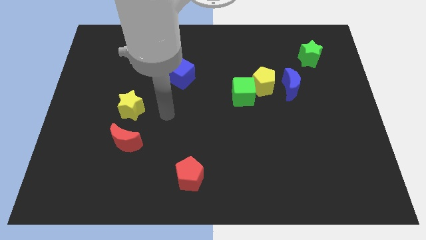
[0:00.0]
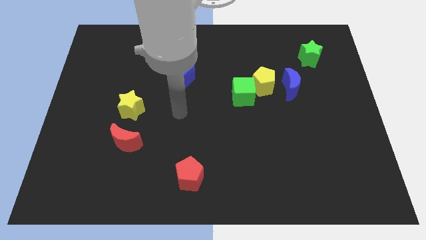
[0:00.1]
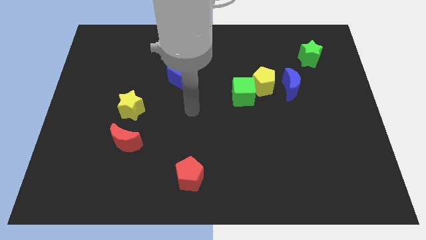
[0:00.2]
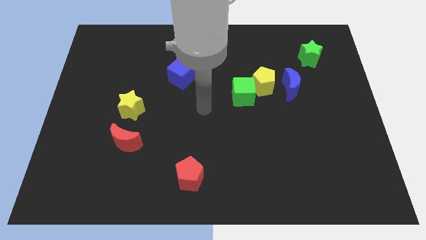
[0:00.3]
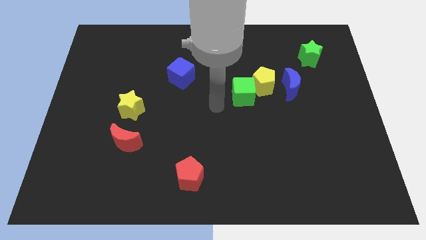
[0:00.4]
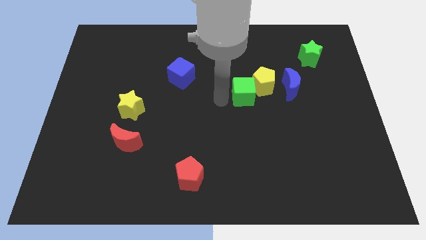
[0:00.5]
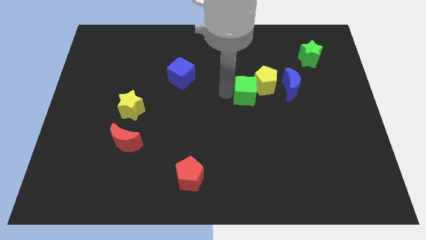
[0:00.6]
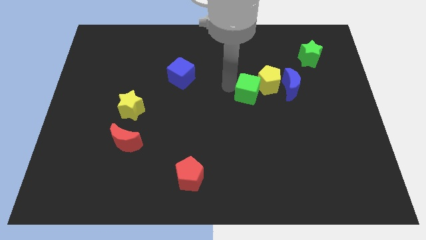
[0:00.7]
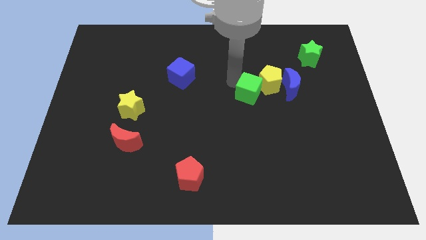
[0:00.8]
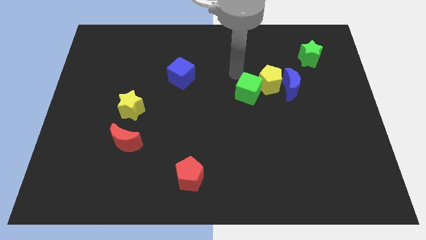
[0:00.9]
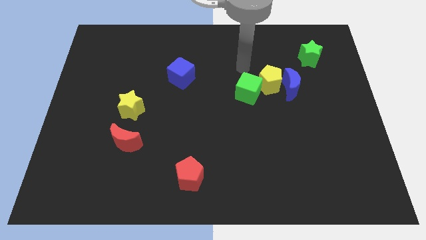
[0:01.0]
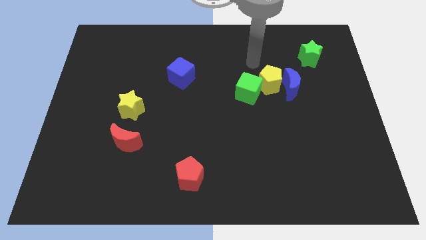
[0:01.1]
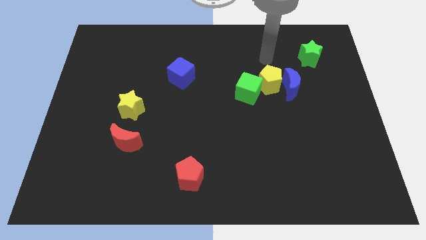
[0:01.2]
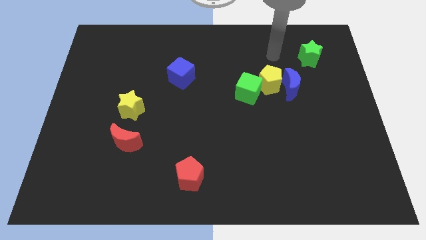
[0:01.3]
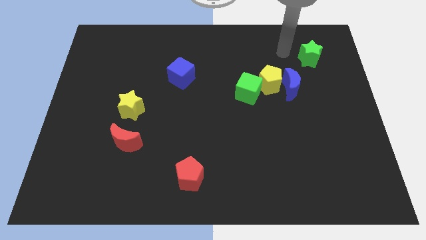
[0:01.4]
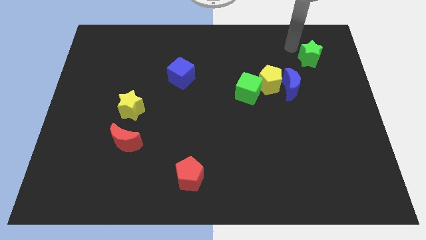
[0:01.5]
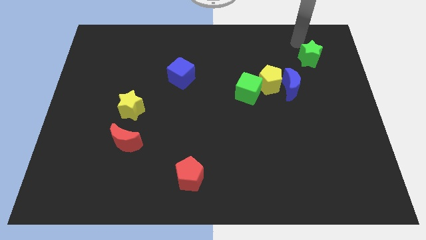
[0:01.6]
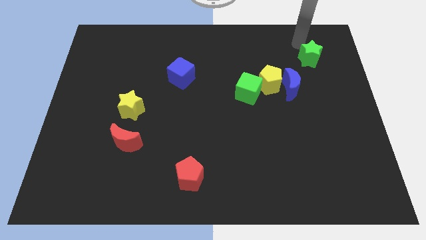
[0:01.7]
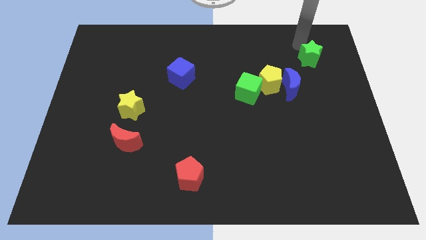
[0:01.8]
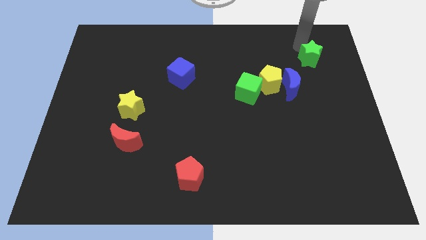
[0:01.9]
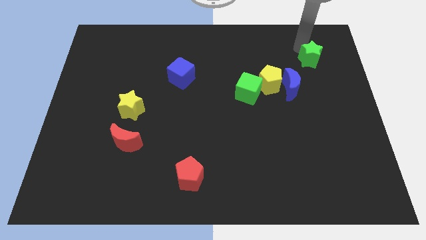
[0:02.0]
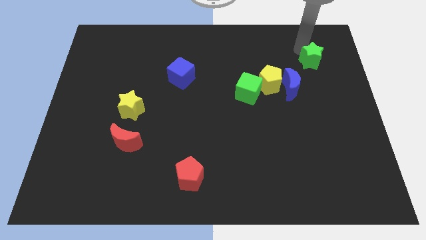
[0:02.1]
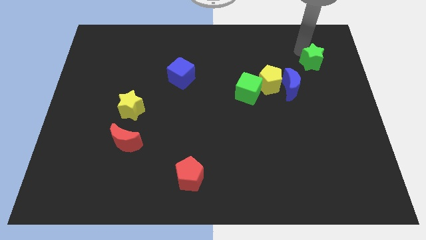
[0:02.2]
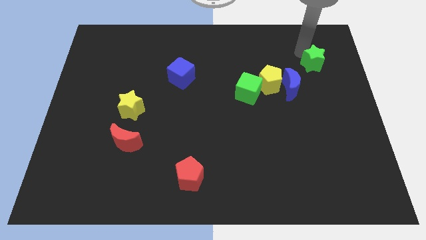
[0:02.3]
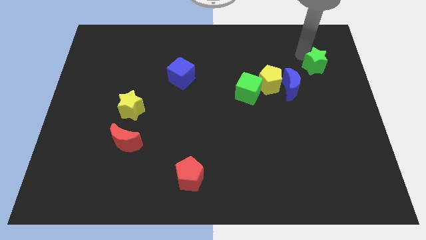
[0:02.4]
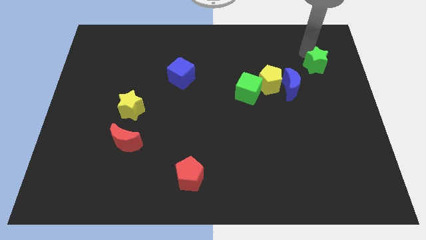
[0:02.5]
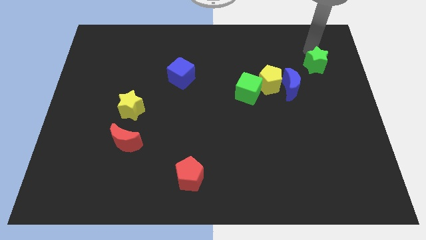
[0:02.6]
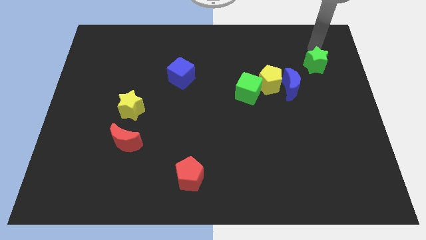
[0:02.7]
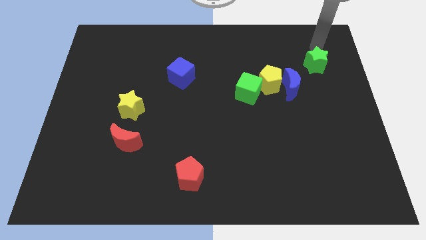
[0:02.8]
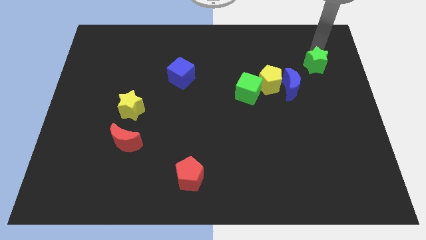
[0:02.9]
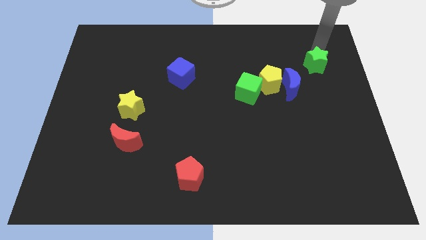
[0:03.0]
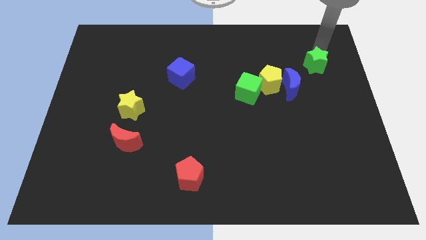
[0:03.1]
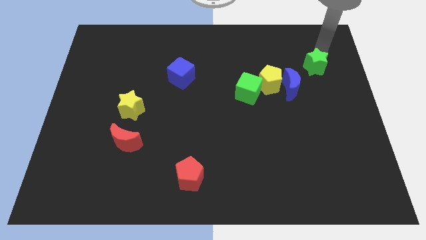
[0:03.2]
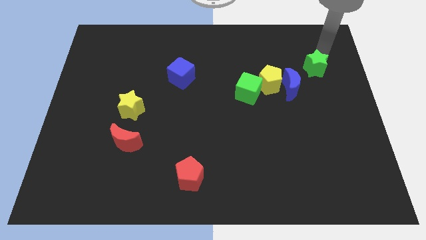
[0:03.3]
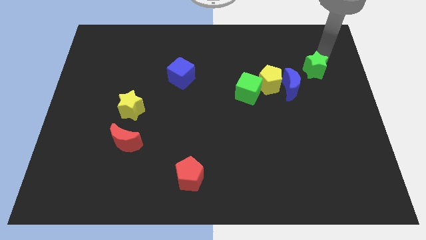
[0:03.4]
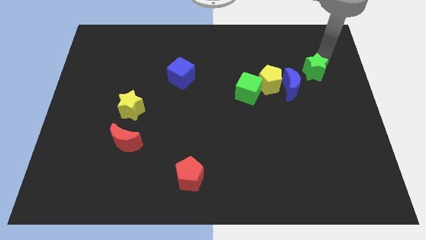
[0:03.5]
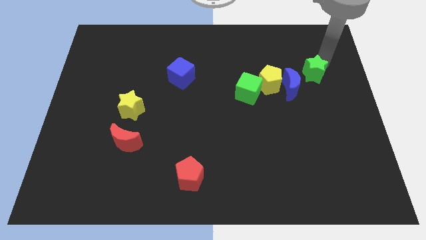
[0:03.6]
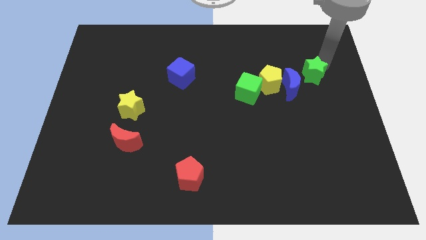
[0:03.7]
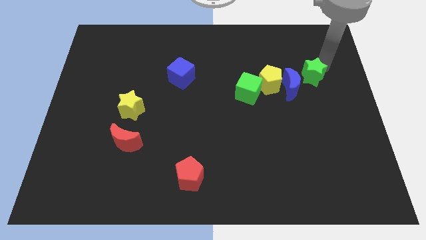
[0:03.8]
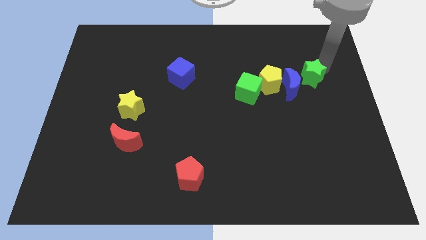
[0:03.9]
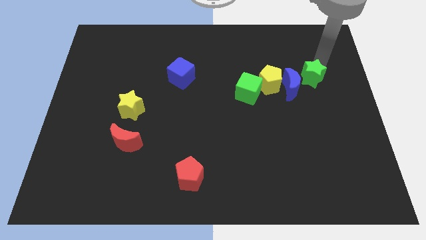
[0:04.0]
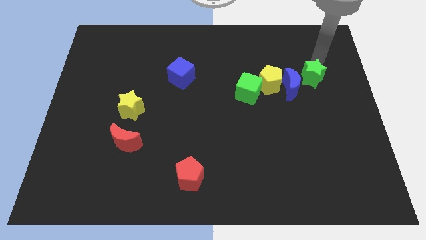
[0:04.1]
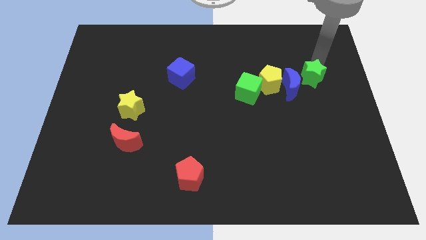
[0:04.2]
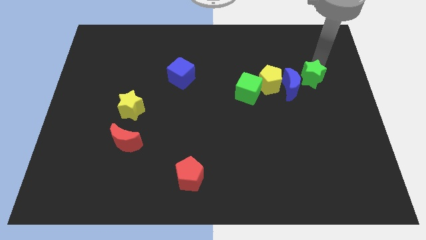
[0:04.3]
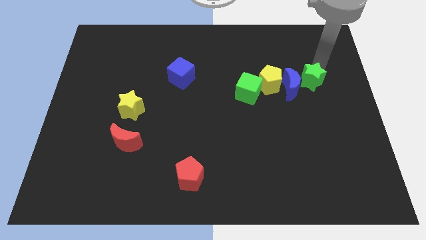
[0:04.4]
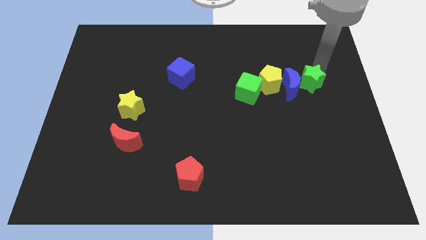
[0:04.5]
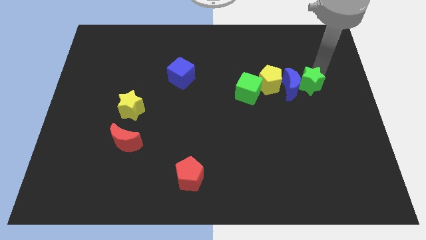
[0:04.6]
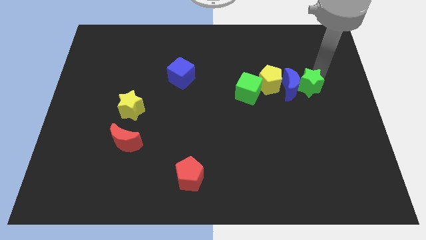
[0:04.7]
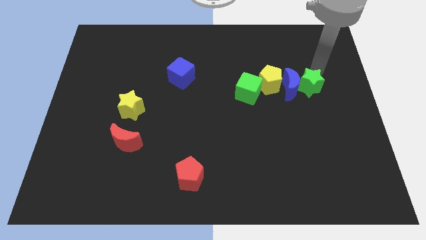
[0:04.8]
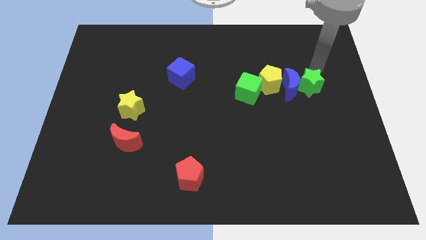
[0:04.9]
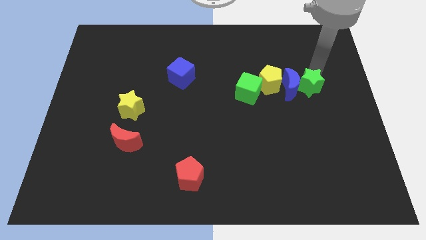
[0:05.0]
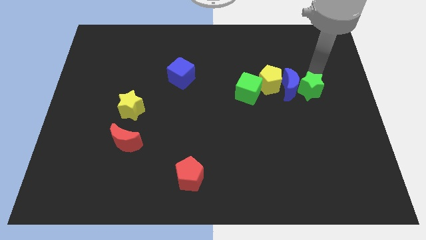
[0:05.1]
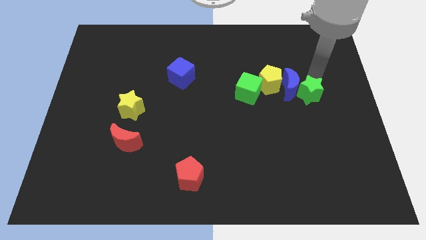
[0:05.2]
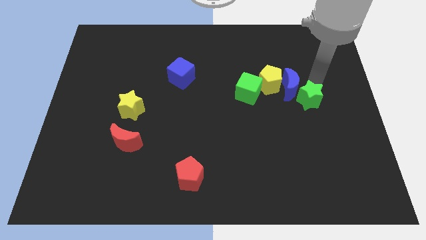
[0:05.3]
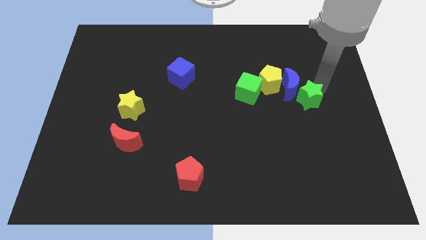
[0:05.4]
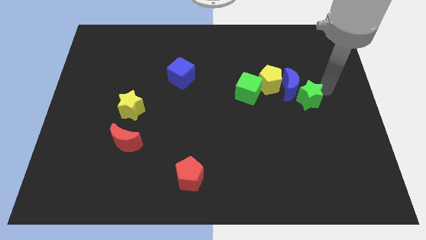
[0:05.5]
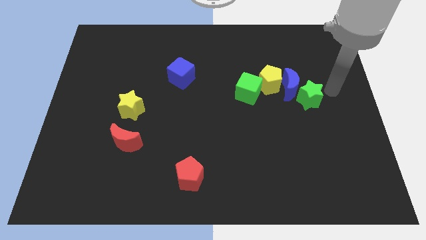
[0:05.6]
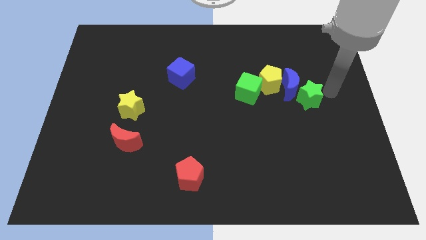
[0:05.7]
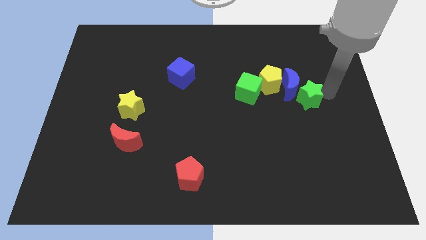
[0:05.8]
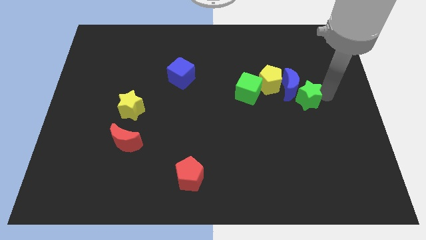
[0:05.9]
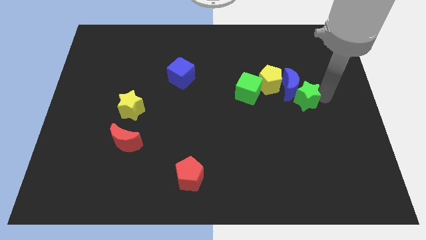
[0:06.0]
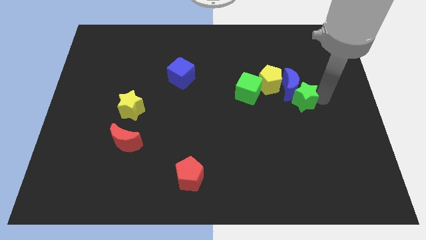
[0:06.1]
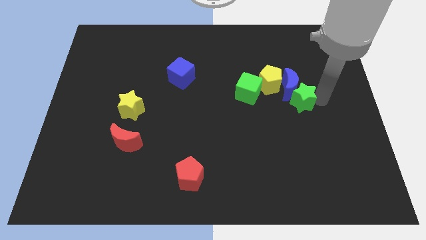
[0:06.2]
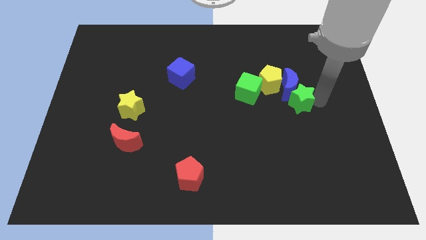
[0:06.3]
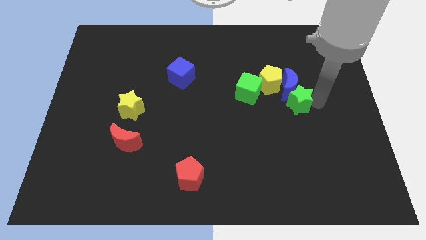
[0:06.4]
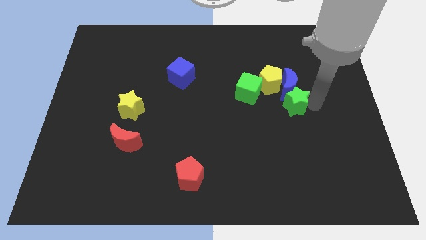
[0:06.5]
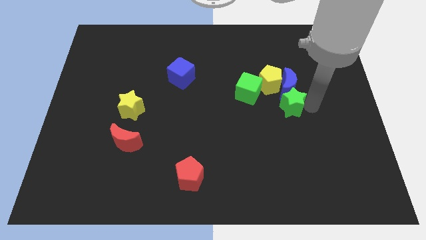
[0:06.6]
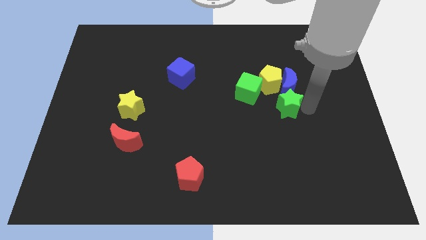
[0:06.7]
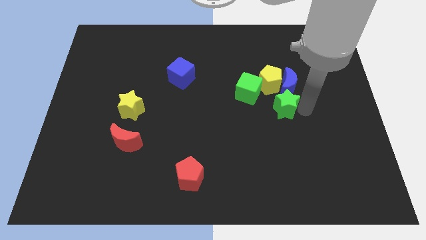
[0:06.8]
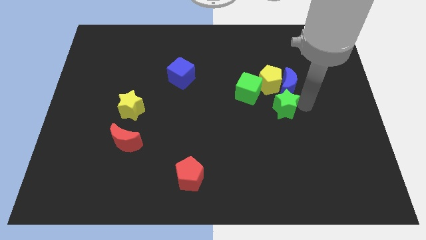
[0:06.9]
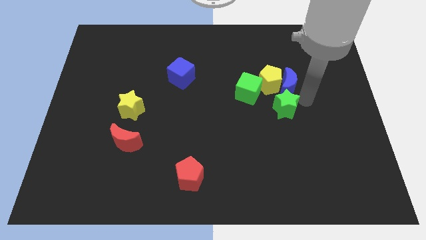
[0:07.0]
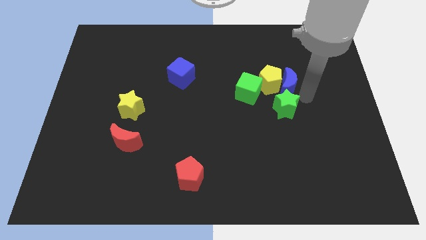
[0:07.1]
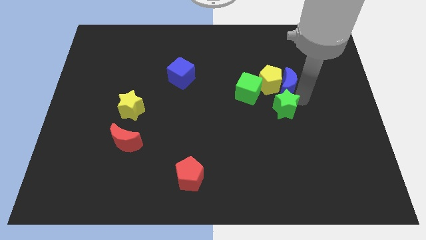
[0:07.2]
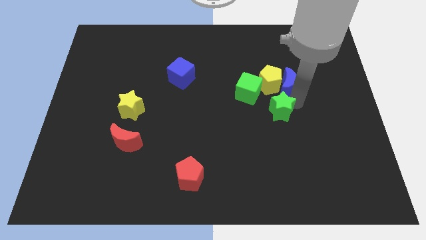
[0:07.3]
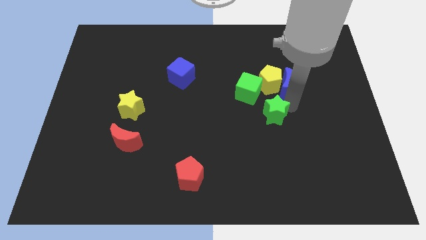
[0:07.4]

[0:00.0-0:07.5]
move the green star down and then to the left

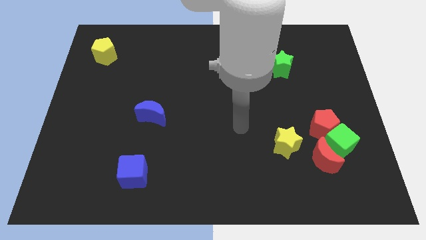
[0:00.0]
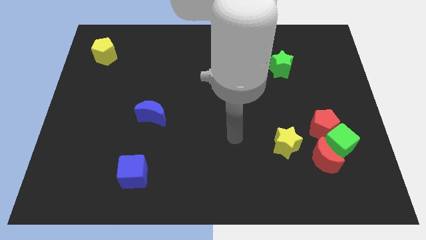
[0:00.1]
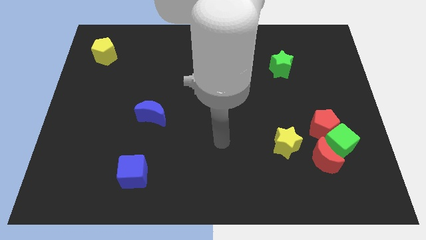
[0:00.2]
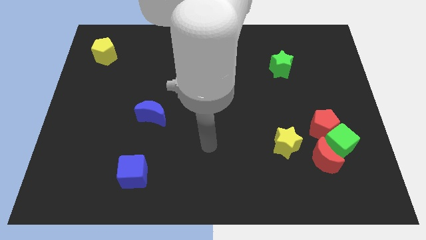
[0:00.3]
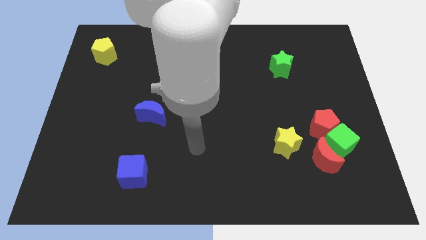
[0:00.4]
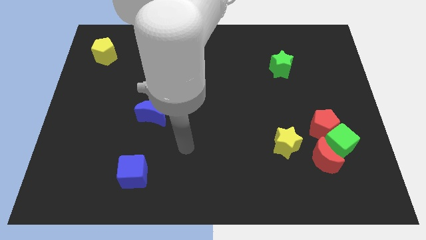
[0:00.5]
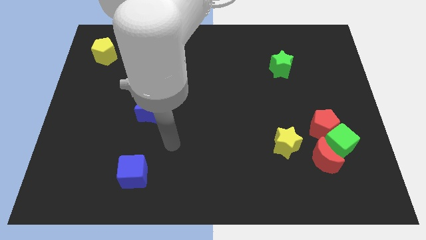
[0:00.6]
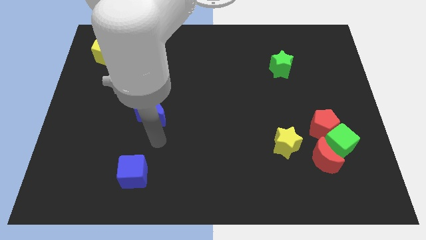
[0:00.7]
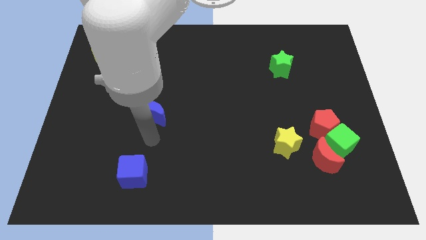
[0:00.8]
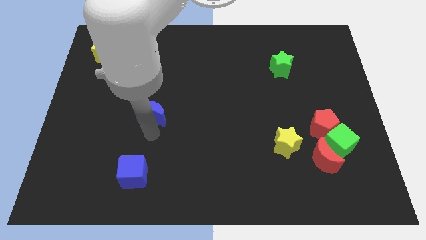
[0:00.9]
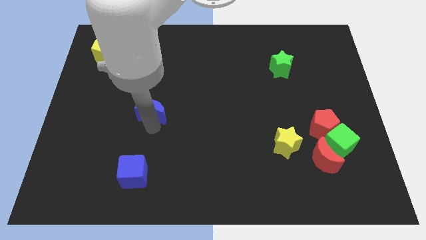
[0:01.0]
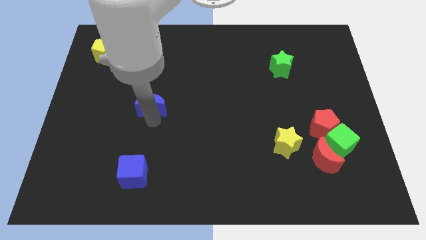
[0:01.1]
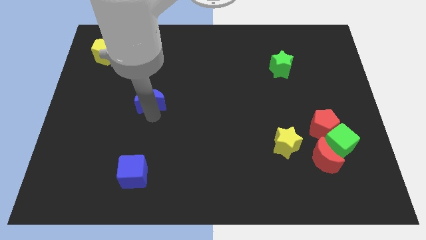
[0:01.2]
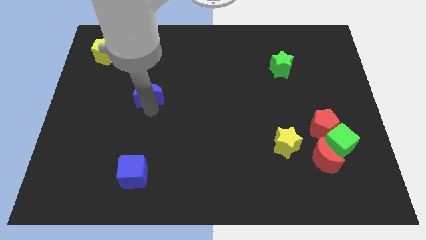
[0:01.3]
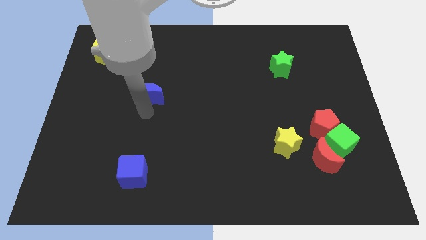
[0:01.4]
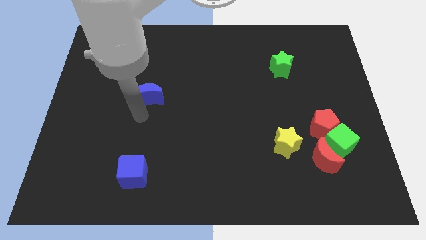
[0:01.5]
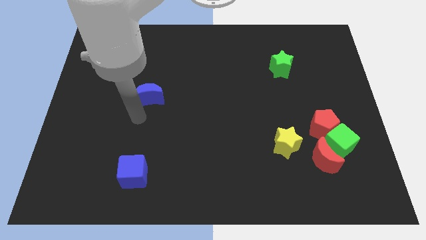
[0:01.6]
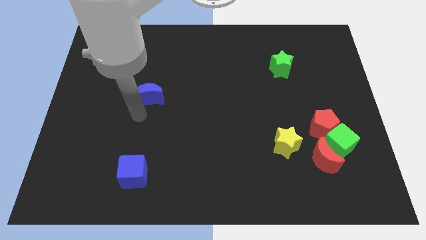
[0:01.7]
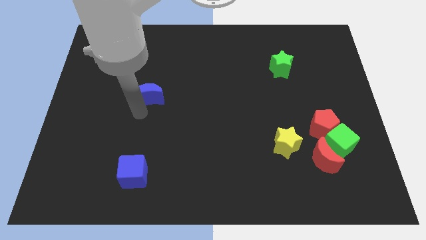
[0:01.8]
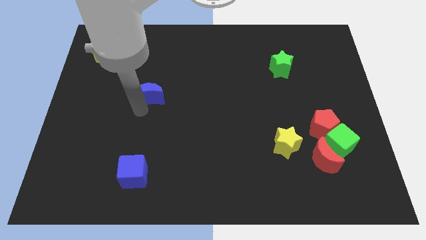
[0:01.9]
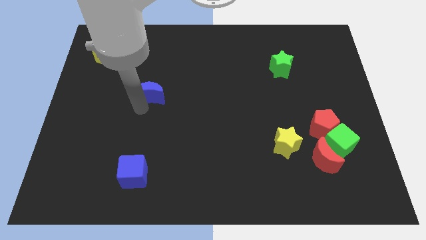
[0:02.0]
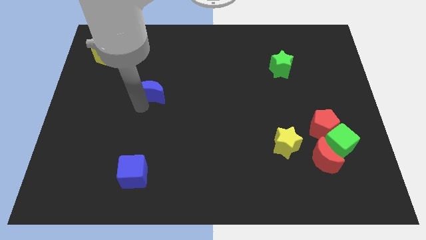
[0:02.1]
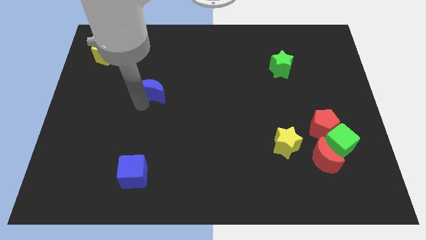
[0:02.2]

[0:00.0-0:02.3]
move the blue moon somewhat up
